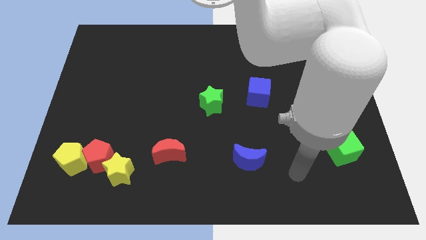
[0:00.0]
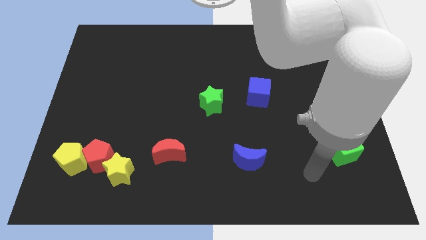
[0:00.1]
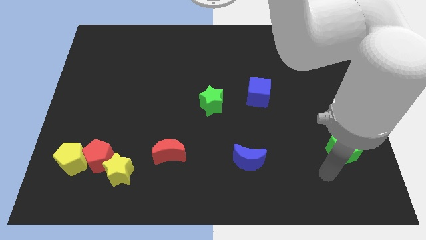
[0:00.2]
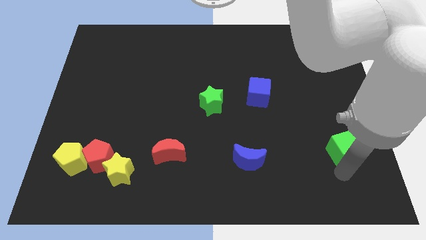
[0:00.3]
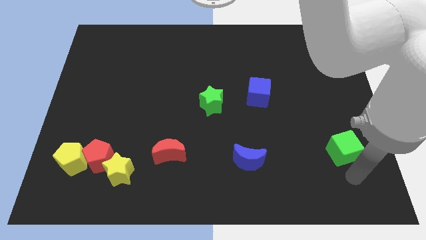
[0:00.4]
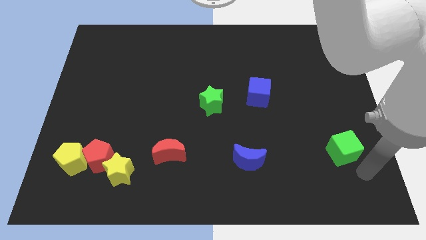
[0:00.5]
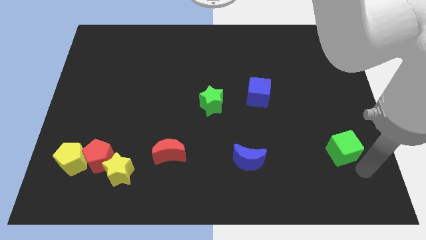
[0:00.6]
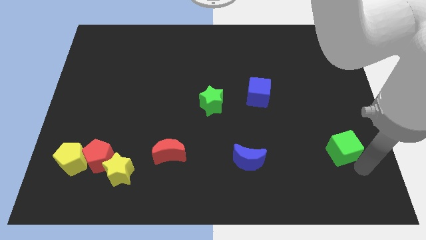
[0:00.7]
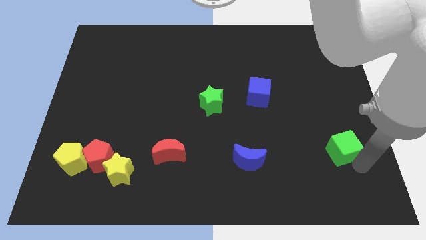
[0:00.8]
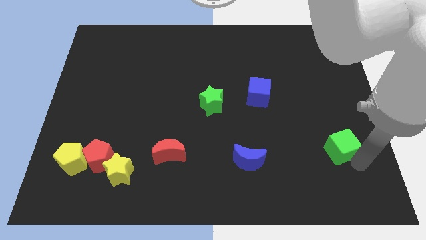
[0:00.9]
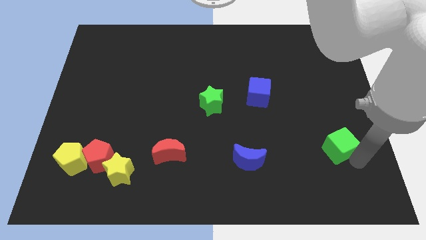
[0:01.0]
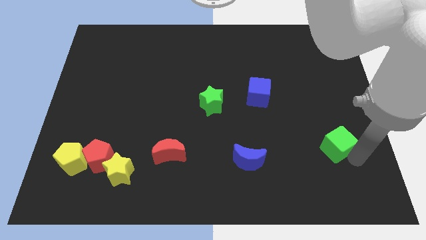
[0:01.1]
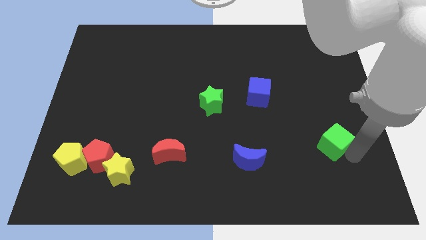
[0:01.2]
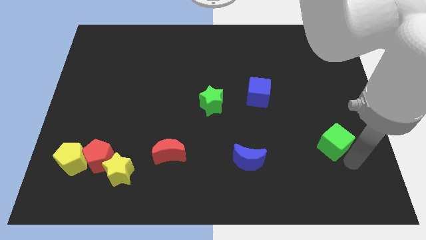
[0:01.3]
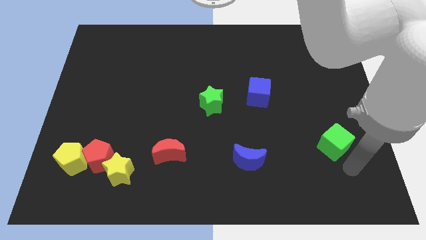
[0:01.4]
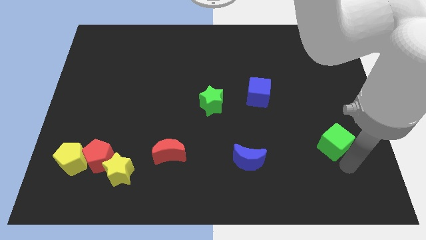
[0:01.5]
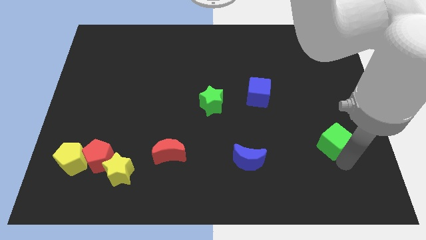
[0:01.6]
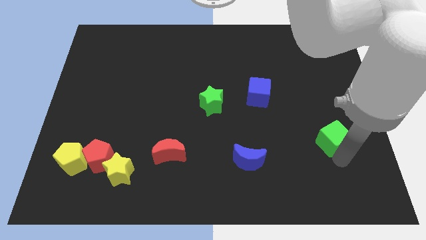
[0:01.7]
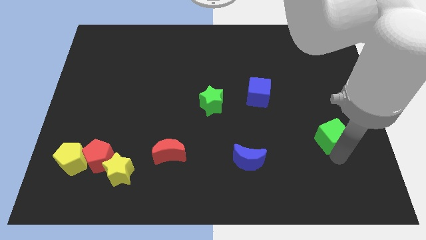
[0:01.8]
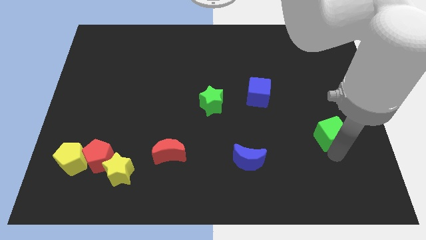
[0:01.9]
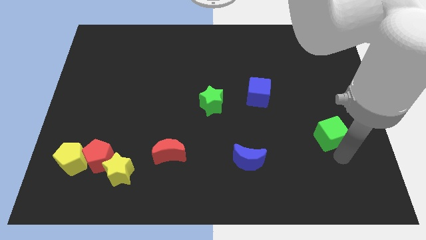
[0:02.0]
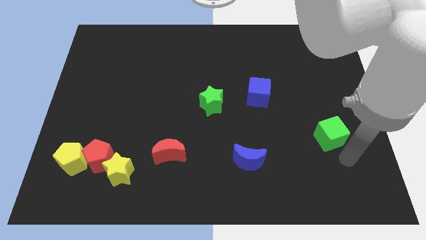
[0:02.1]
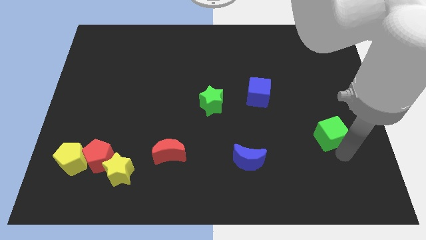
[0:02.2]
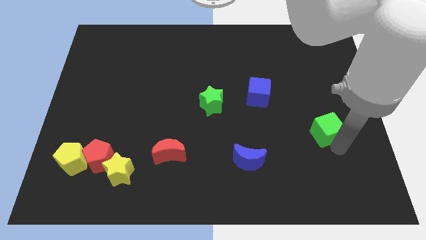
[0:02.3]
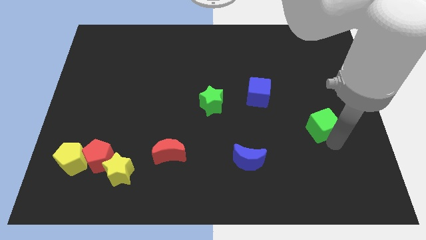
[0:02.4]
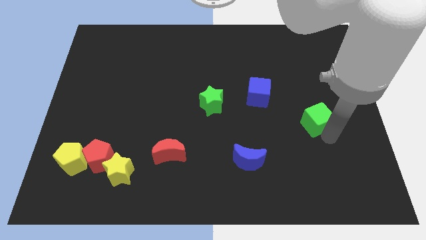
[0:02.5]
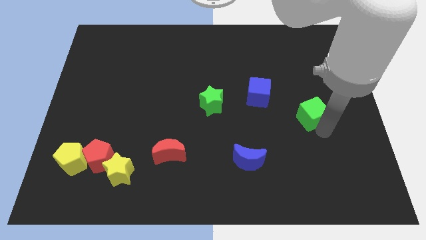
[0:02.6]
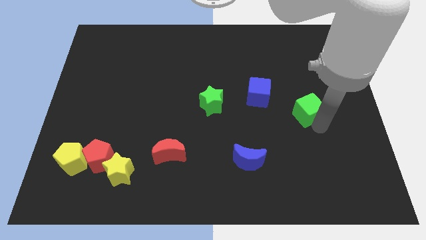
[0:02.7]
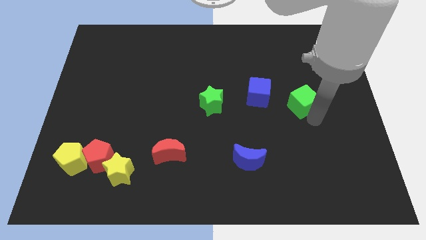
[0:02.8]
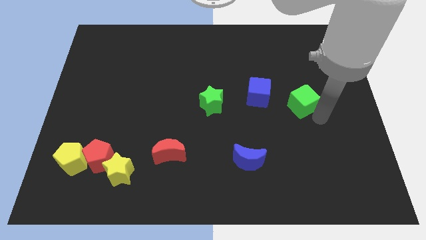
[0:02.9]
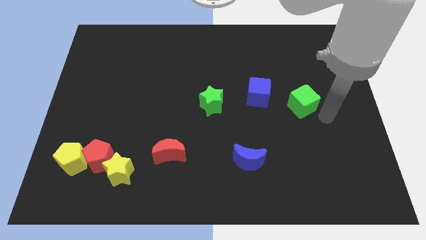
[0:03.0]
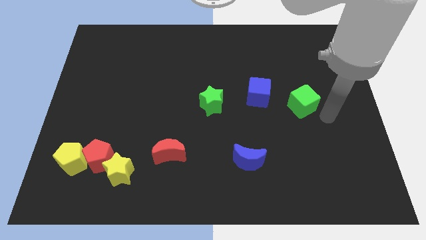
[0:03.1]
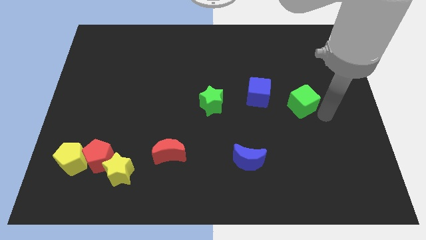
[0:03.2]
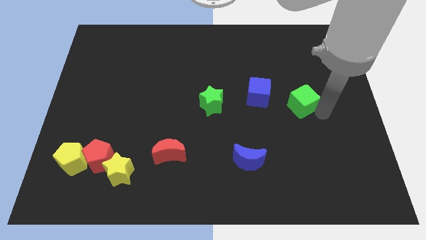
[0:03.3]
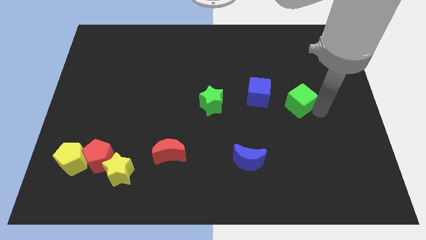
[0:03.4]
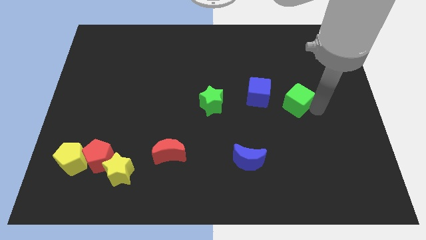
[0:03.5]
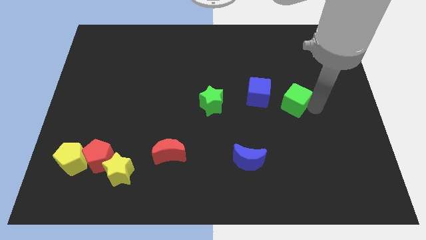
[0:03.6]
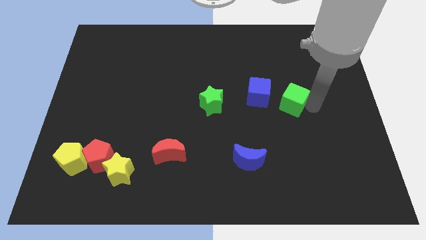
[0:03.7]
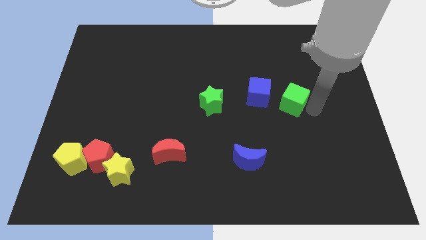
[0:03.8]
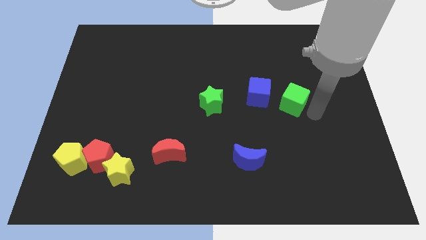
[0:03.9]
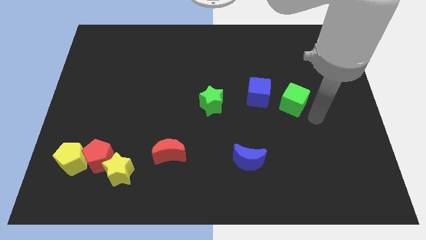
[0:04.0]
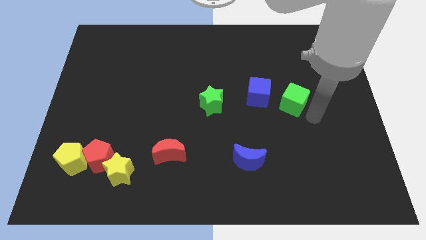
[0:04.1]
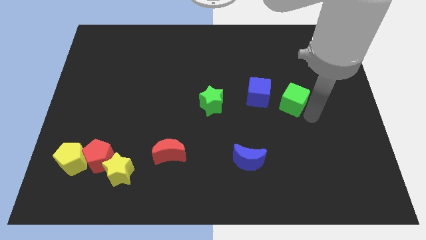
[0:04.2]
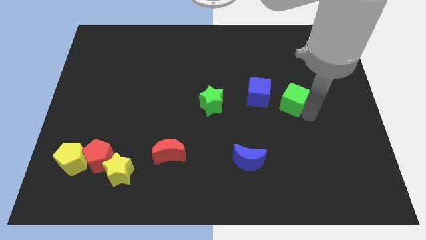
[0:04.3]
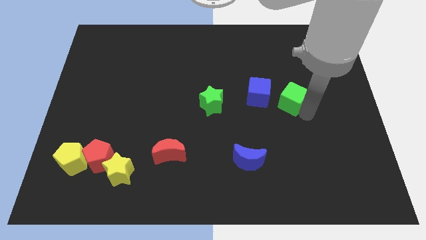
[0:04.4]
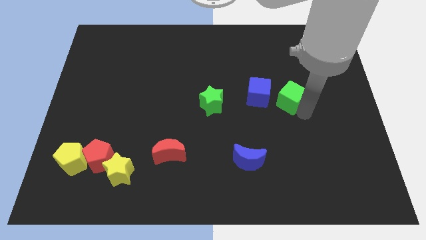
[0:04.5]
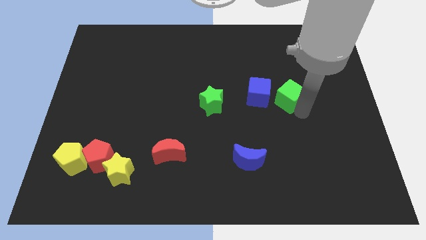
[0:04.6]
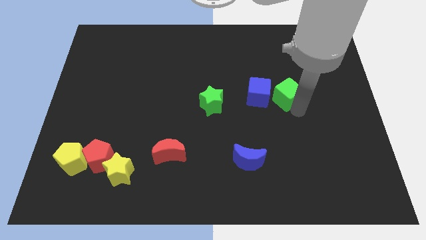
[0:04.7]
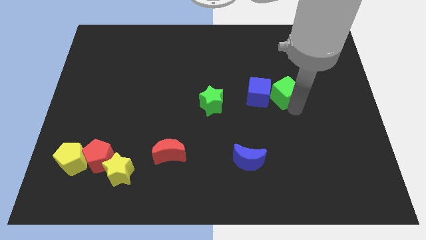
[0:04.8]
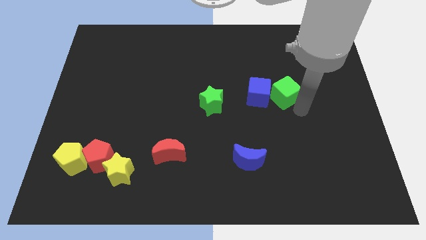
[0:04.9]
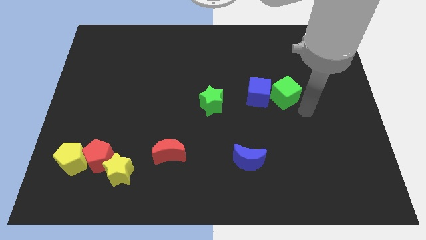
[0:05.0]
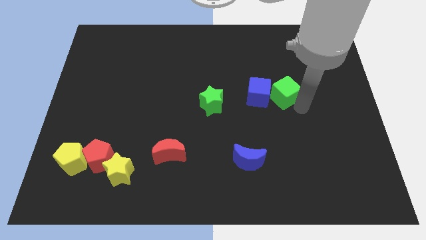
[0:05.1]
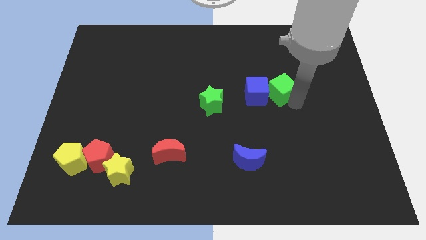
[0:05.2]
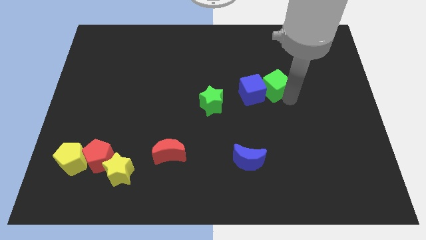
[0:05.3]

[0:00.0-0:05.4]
slide the green cube up and then left

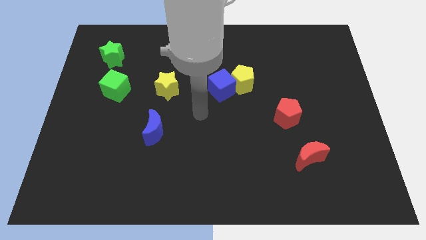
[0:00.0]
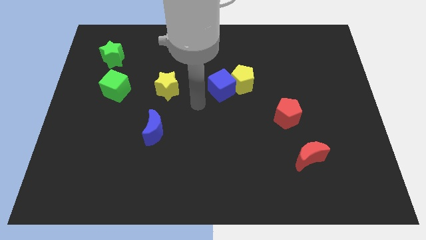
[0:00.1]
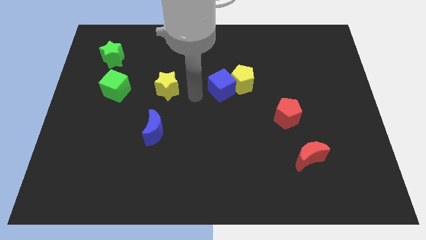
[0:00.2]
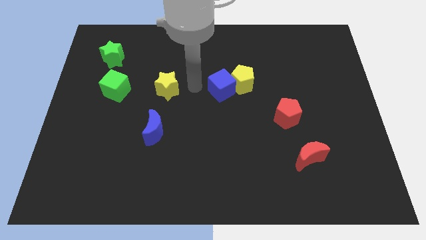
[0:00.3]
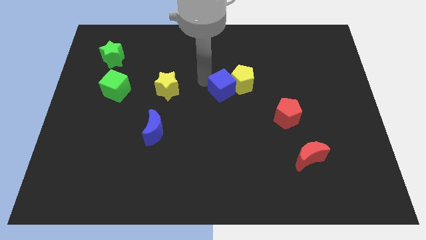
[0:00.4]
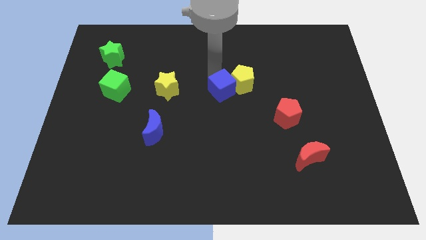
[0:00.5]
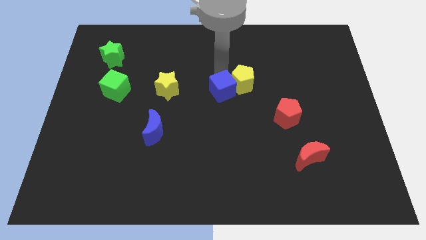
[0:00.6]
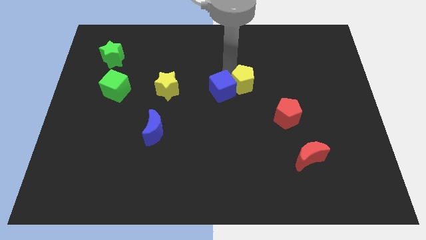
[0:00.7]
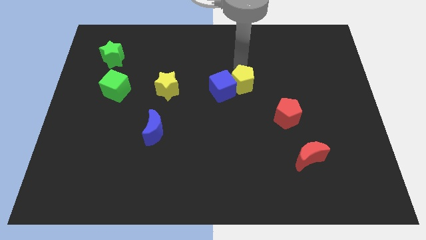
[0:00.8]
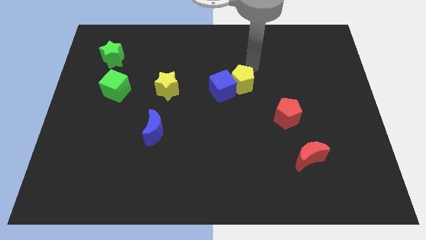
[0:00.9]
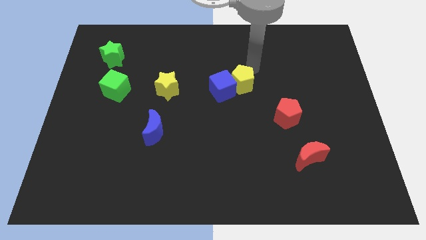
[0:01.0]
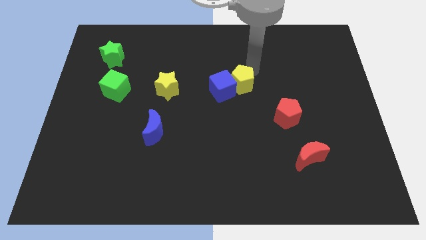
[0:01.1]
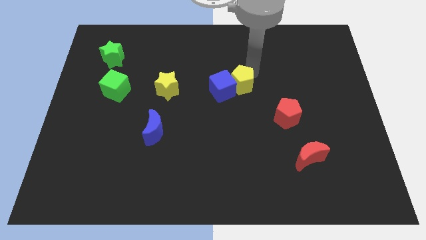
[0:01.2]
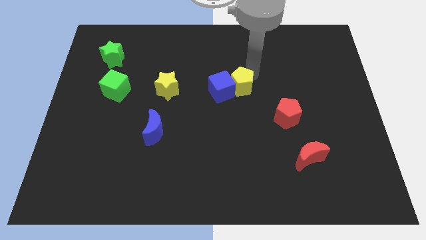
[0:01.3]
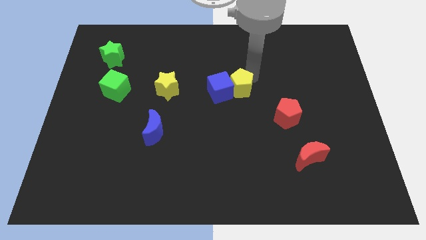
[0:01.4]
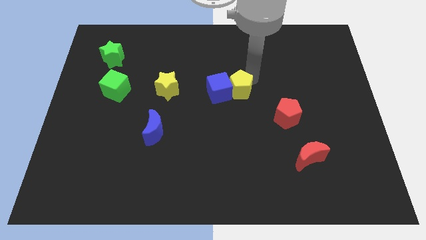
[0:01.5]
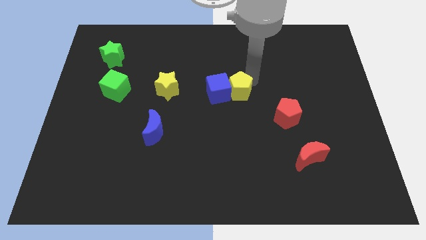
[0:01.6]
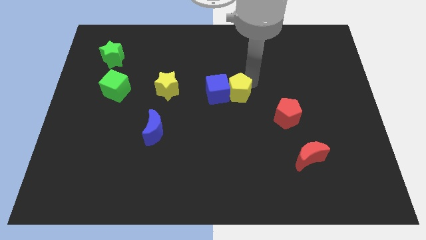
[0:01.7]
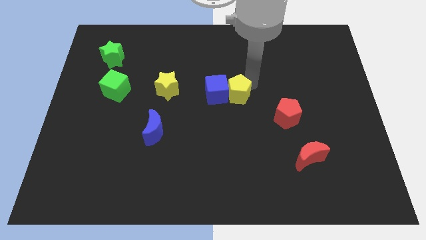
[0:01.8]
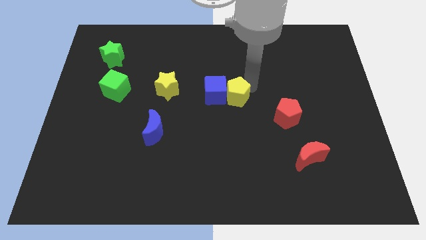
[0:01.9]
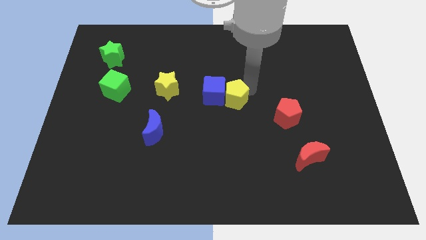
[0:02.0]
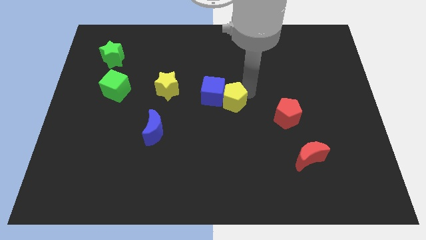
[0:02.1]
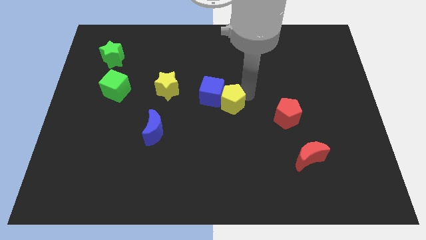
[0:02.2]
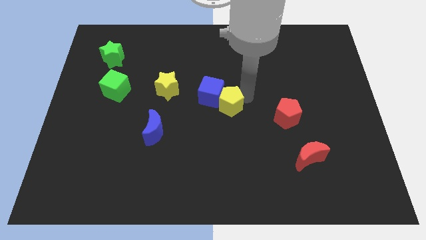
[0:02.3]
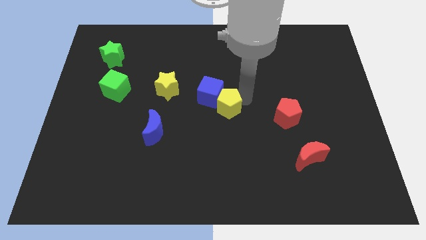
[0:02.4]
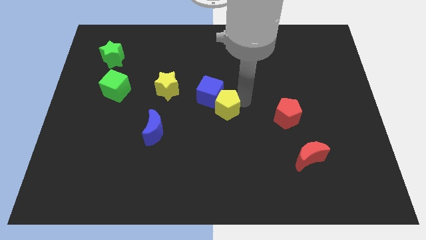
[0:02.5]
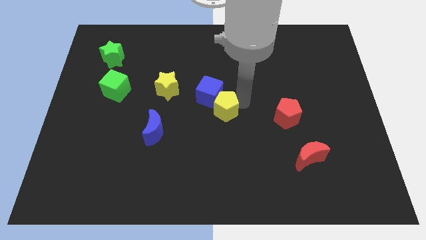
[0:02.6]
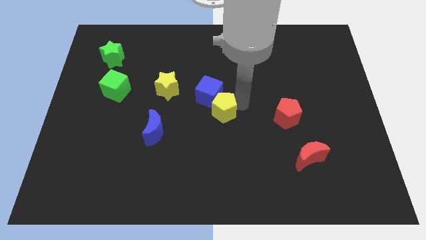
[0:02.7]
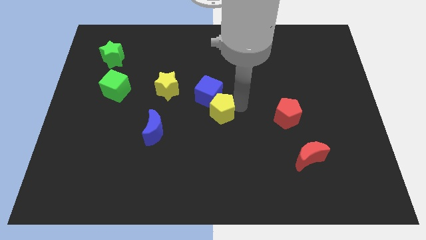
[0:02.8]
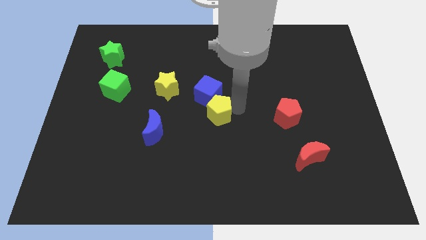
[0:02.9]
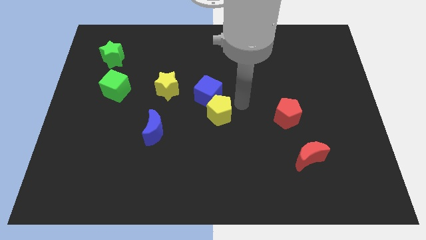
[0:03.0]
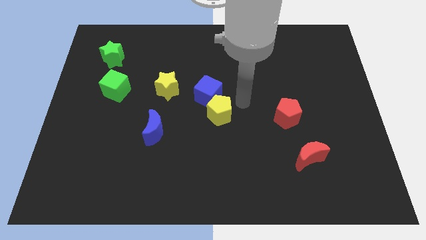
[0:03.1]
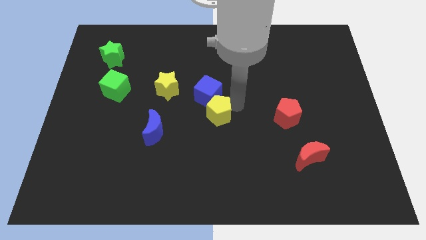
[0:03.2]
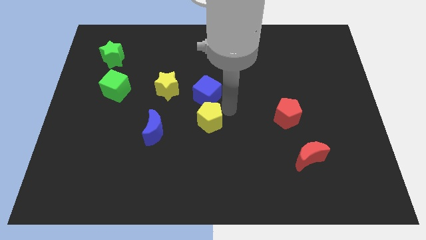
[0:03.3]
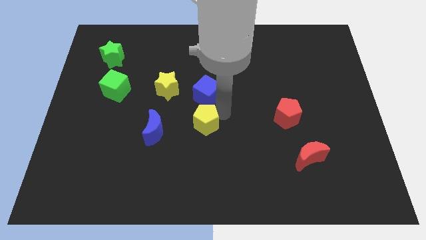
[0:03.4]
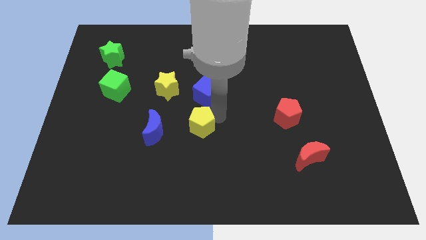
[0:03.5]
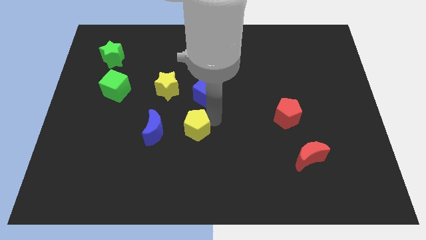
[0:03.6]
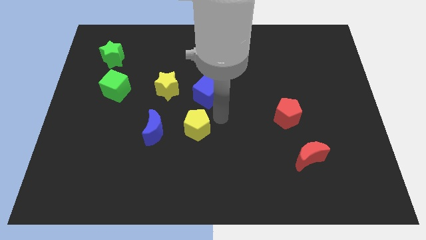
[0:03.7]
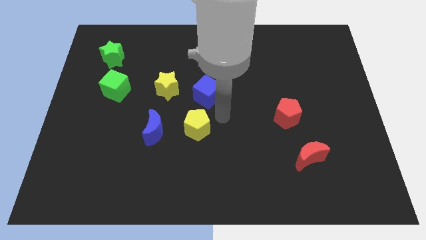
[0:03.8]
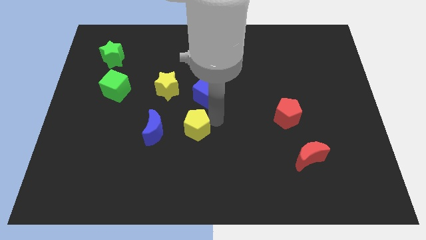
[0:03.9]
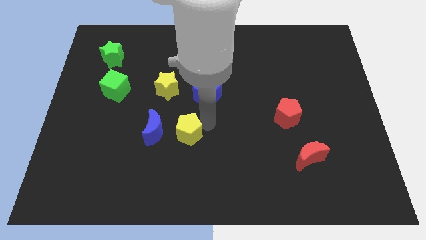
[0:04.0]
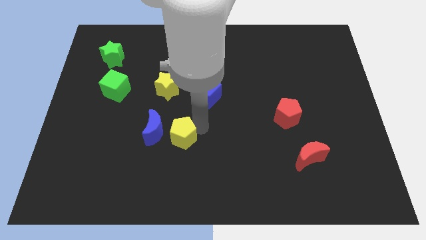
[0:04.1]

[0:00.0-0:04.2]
slide the yellow pentagon diagonally downwards and left
